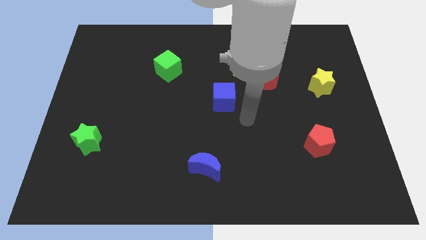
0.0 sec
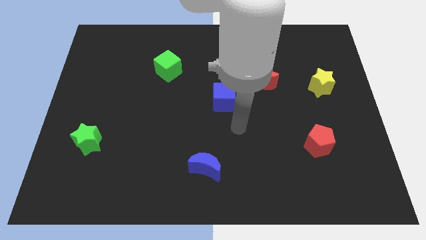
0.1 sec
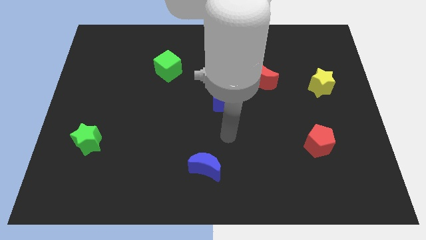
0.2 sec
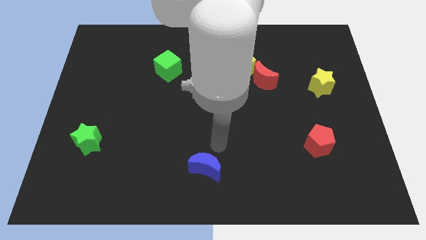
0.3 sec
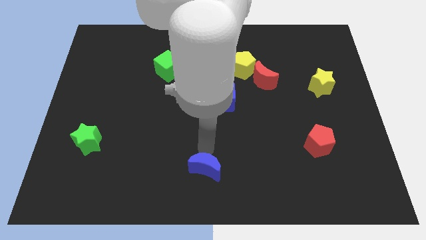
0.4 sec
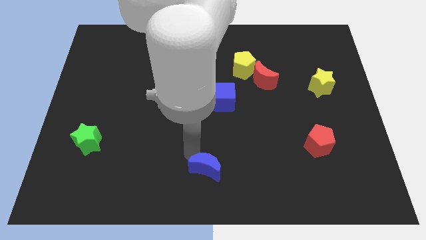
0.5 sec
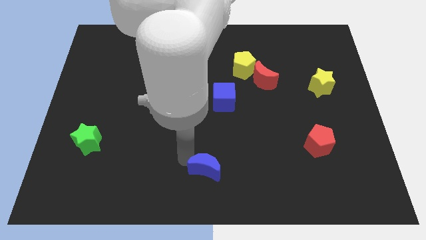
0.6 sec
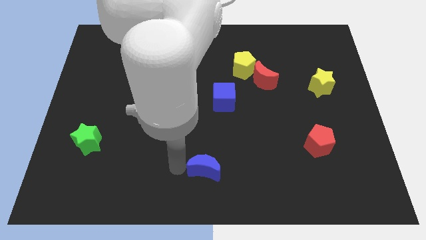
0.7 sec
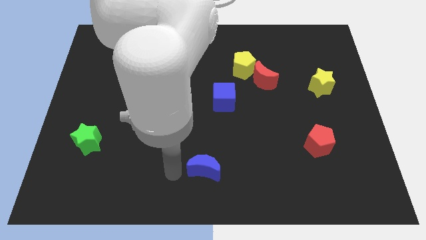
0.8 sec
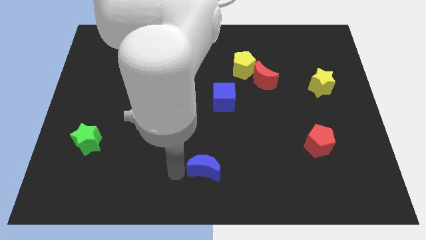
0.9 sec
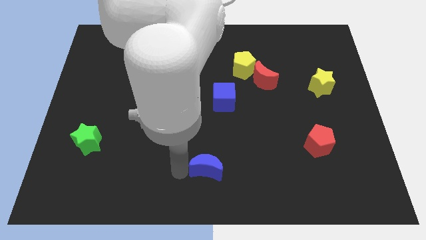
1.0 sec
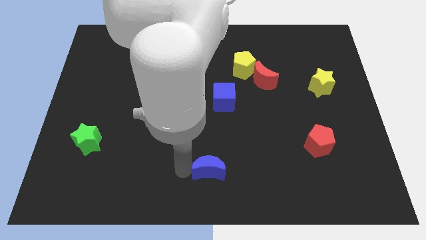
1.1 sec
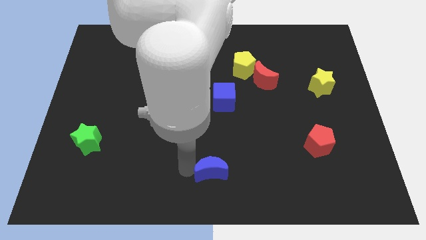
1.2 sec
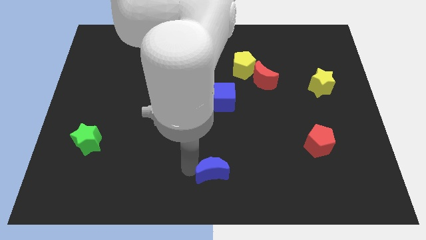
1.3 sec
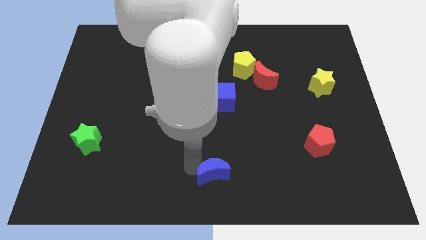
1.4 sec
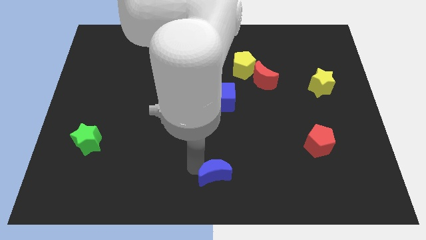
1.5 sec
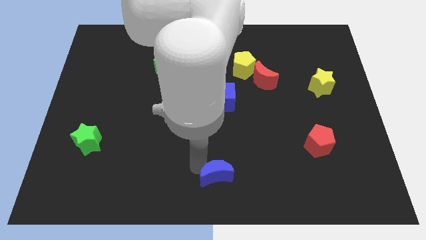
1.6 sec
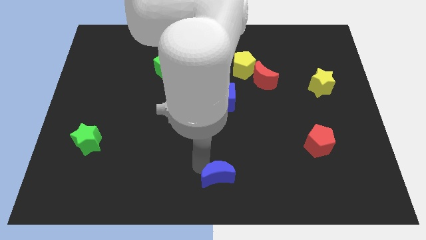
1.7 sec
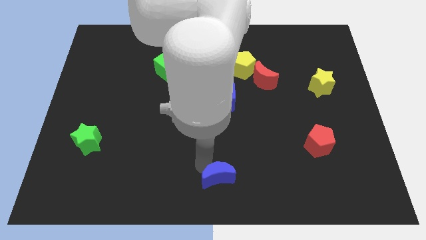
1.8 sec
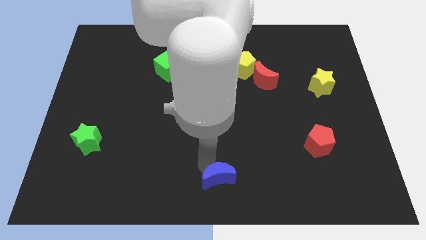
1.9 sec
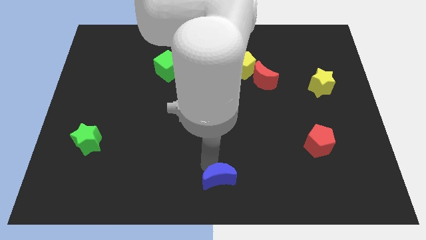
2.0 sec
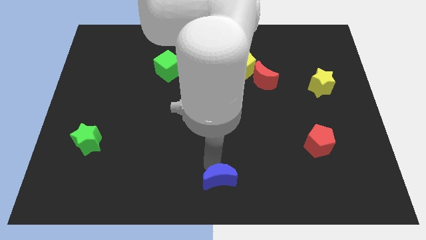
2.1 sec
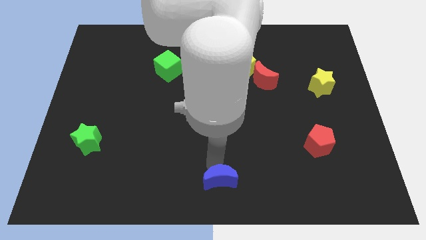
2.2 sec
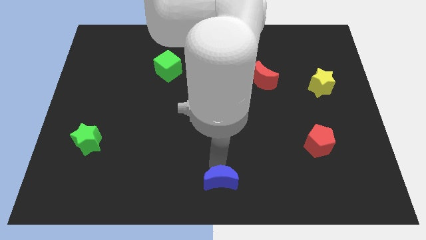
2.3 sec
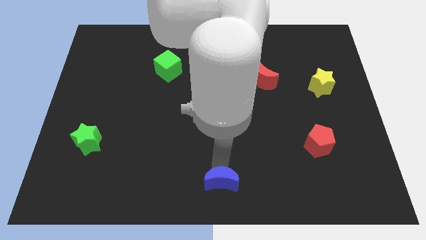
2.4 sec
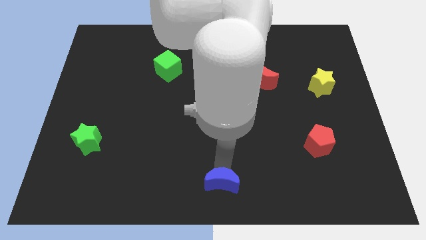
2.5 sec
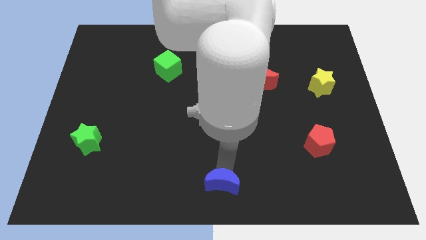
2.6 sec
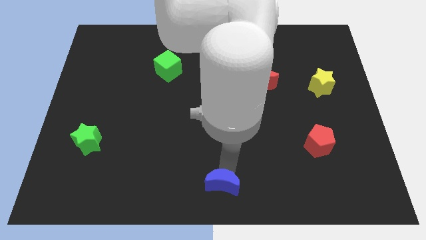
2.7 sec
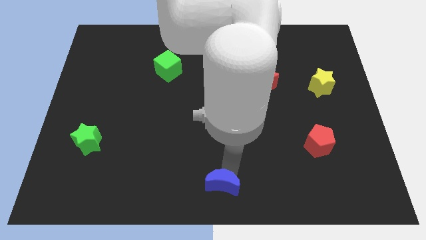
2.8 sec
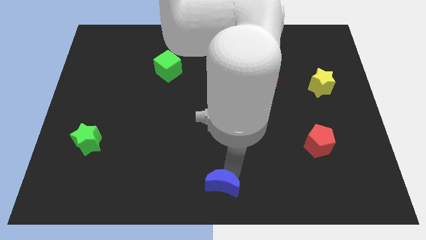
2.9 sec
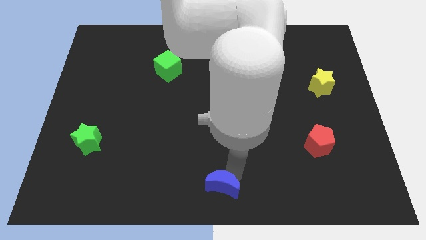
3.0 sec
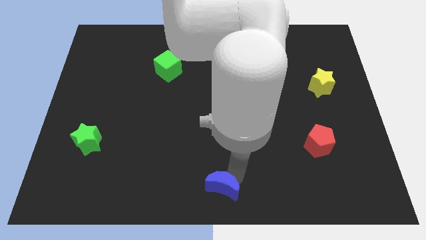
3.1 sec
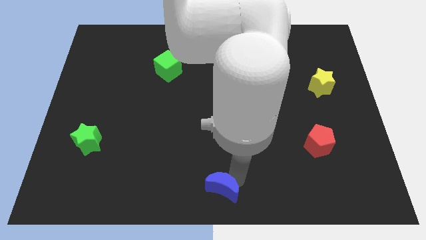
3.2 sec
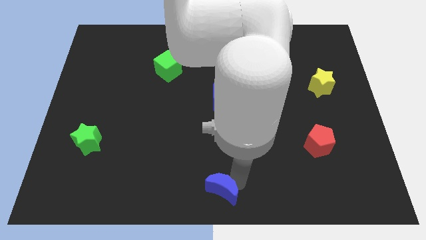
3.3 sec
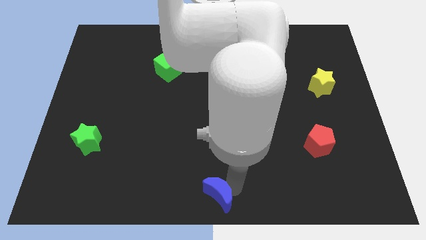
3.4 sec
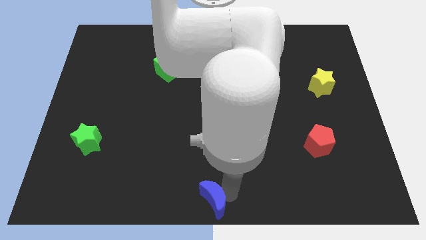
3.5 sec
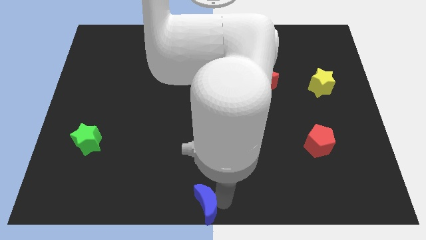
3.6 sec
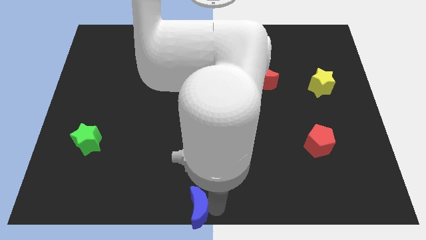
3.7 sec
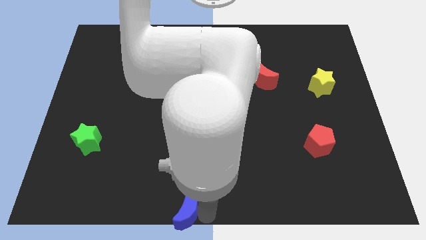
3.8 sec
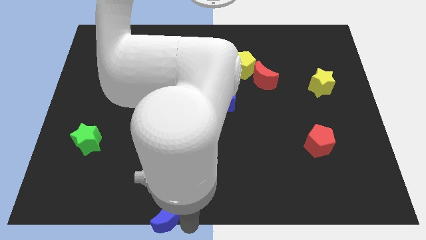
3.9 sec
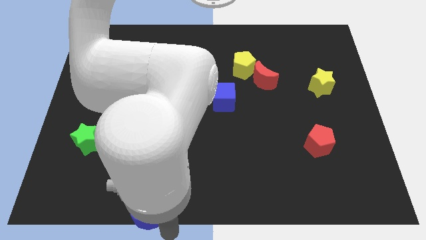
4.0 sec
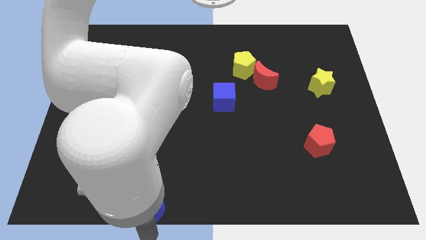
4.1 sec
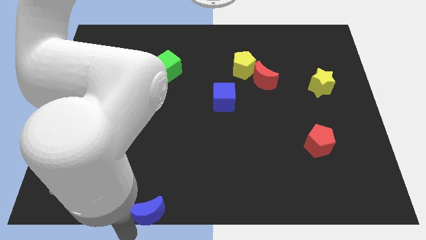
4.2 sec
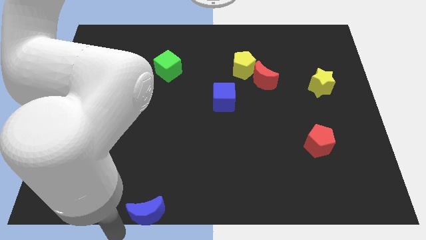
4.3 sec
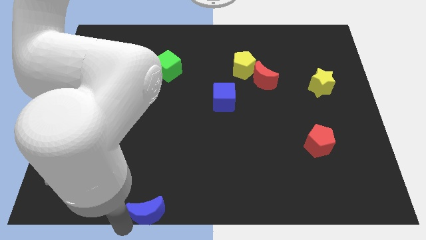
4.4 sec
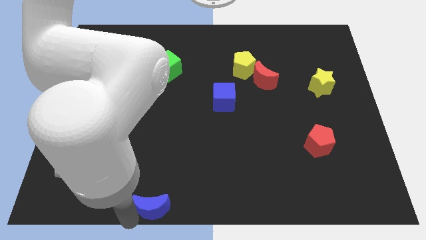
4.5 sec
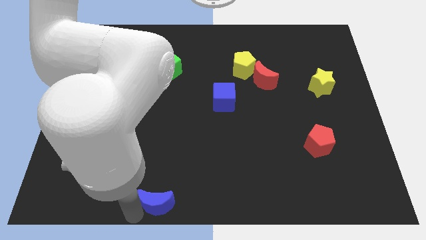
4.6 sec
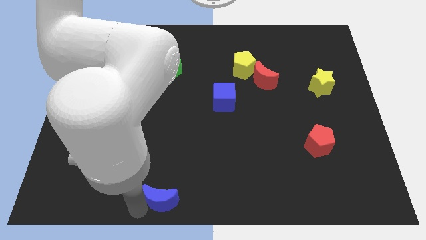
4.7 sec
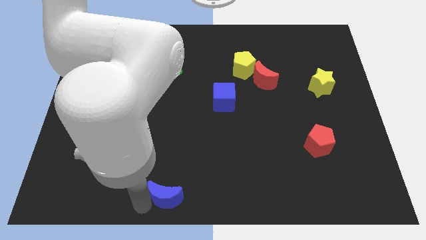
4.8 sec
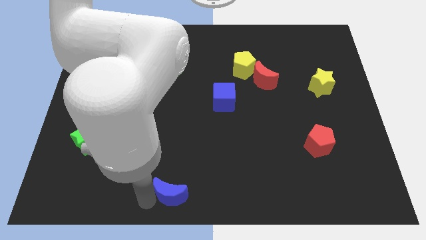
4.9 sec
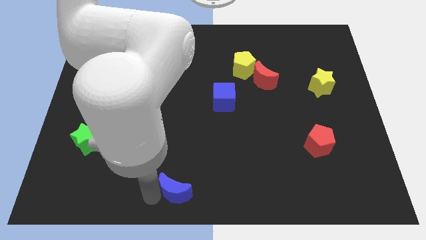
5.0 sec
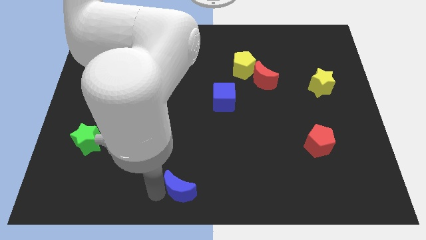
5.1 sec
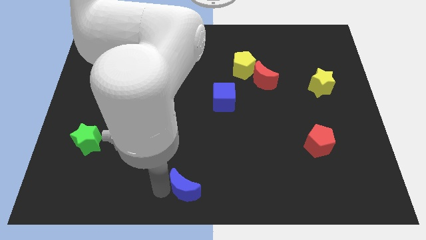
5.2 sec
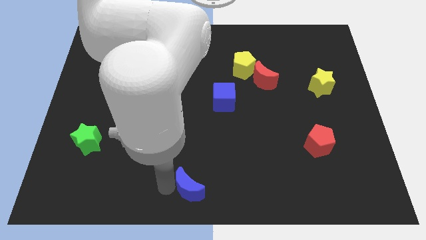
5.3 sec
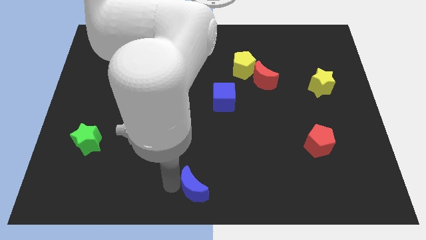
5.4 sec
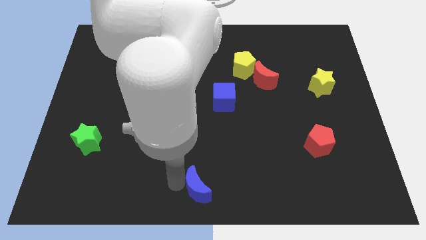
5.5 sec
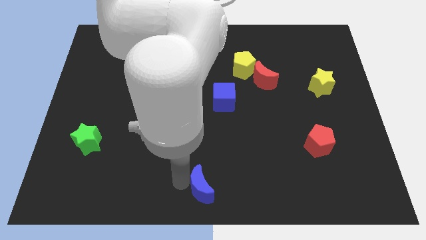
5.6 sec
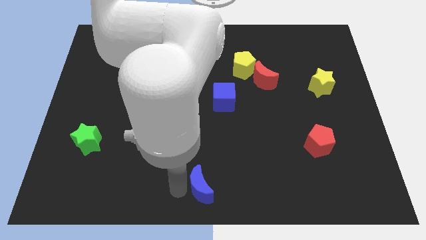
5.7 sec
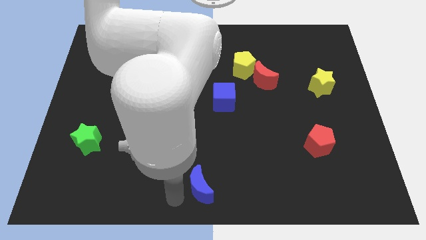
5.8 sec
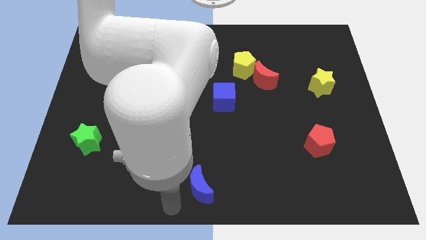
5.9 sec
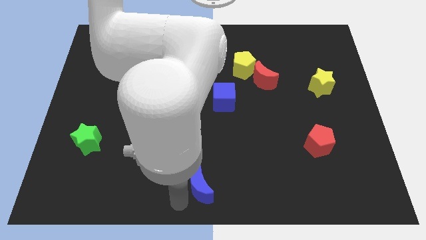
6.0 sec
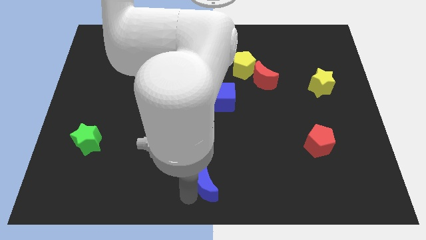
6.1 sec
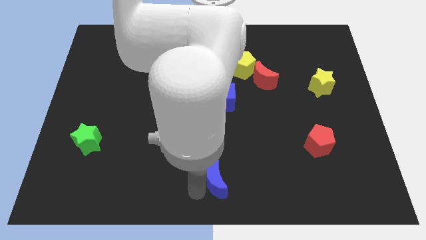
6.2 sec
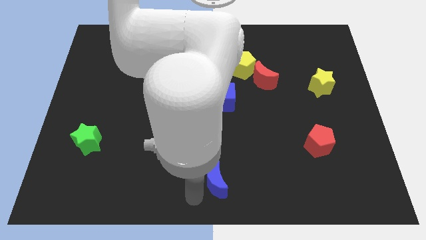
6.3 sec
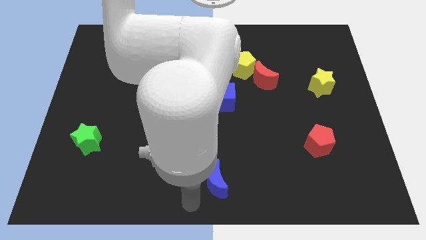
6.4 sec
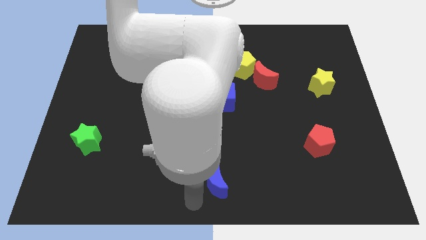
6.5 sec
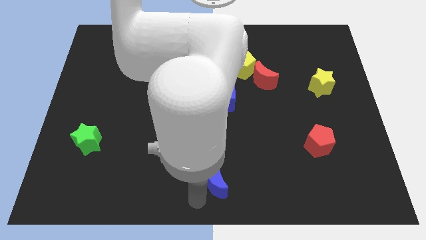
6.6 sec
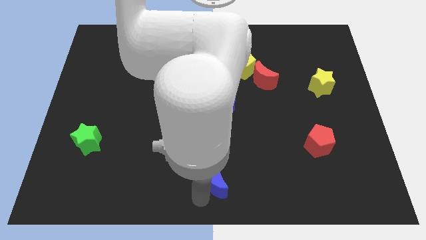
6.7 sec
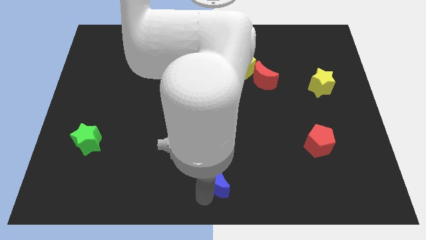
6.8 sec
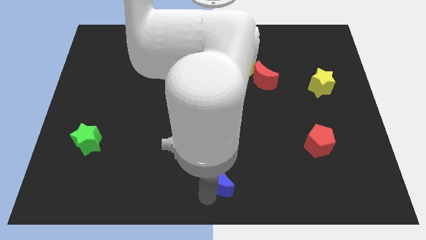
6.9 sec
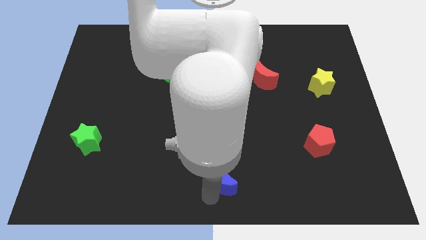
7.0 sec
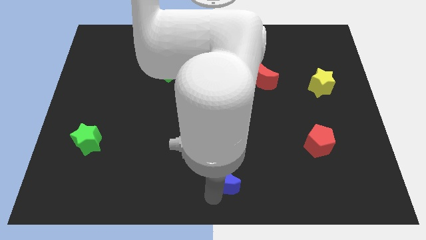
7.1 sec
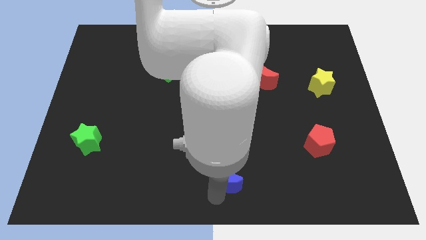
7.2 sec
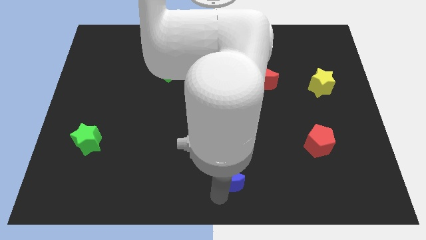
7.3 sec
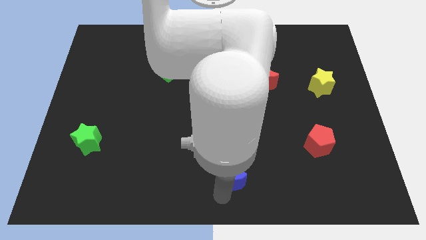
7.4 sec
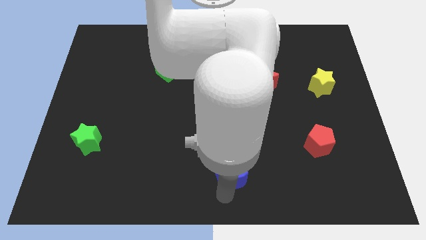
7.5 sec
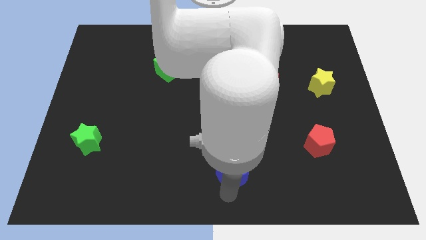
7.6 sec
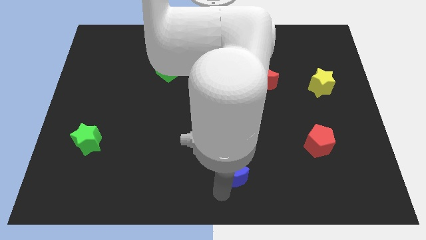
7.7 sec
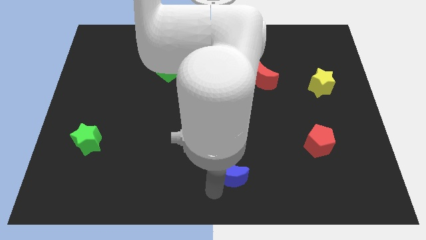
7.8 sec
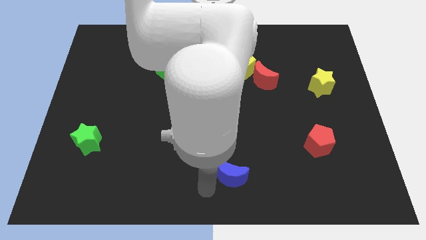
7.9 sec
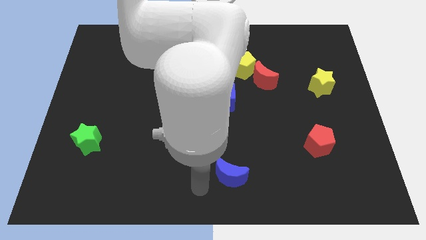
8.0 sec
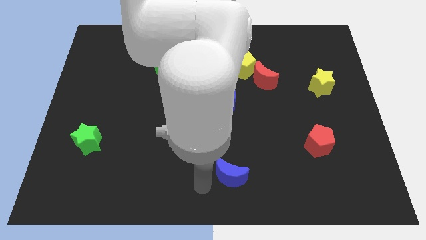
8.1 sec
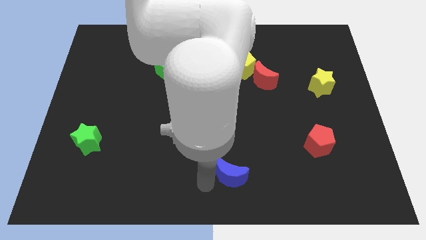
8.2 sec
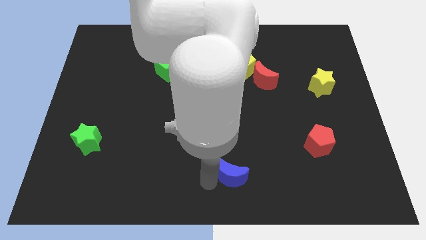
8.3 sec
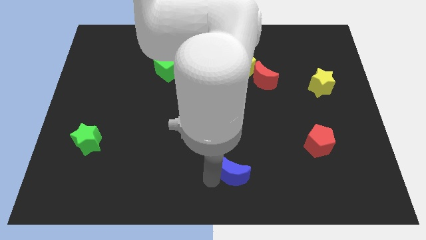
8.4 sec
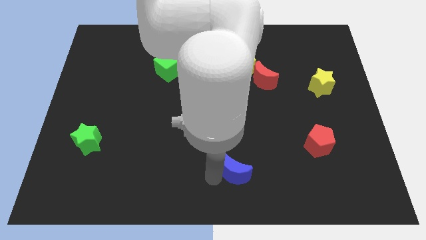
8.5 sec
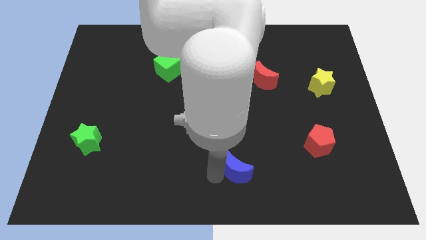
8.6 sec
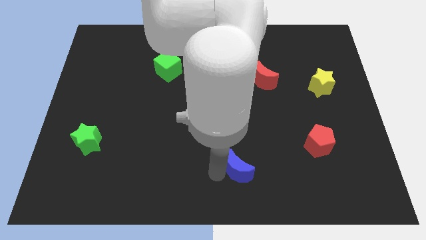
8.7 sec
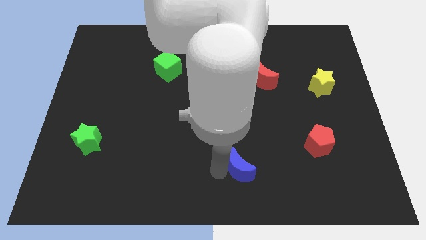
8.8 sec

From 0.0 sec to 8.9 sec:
move the blue moon slightly to the right

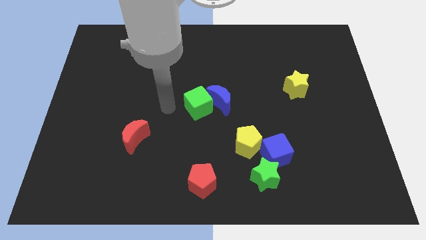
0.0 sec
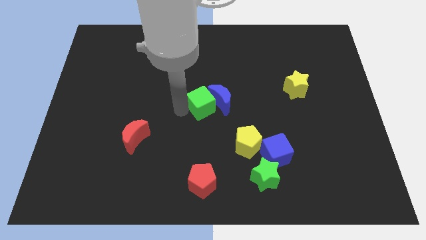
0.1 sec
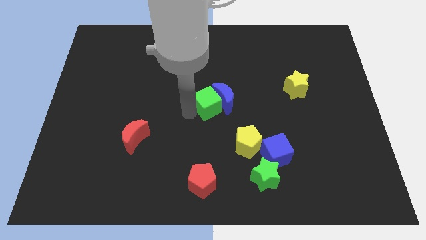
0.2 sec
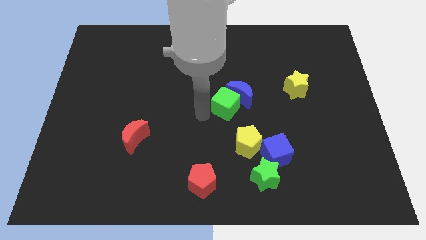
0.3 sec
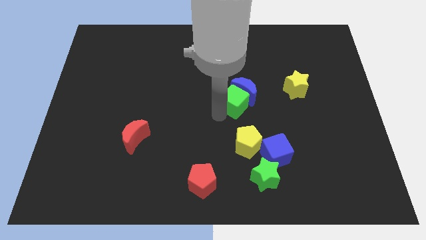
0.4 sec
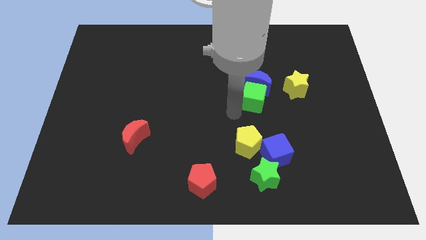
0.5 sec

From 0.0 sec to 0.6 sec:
slide the blue moon a little diagonally up and right
